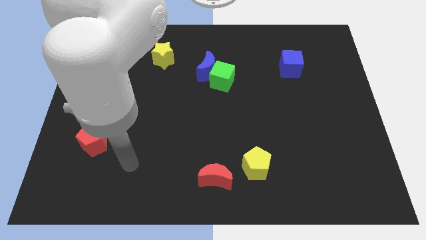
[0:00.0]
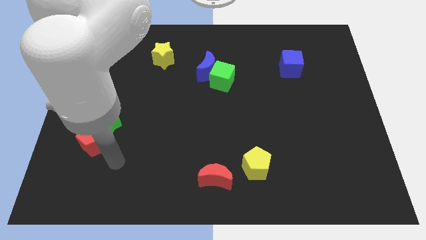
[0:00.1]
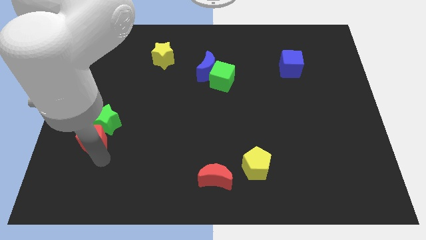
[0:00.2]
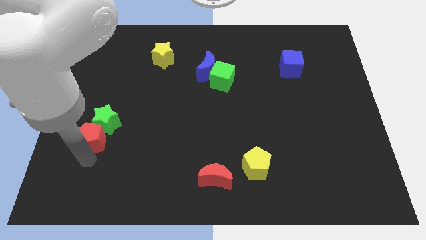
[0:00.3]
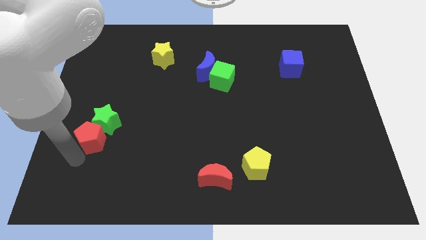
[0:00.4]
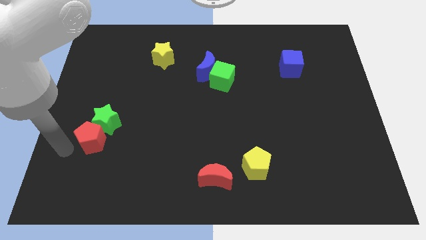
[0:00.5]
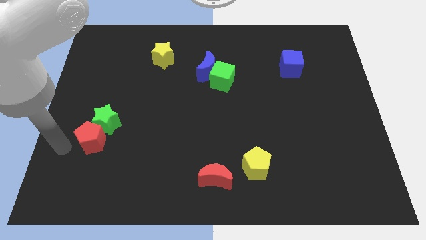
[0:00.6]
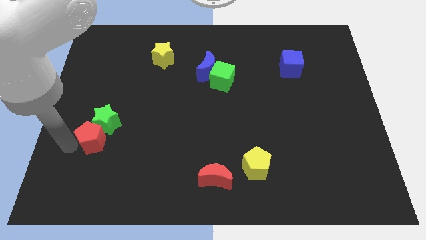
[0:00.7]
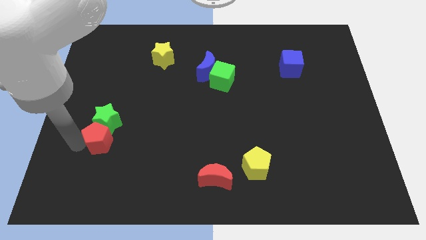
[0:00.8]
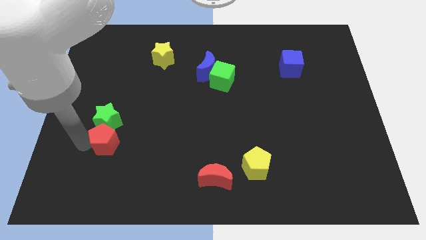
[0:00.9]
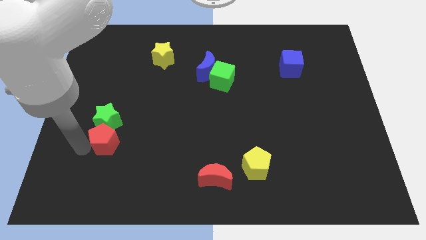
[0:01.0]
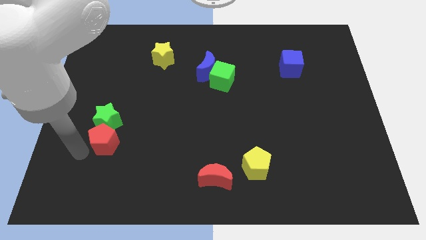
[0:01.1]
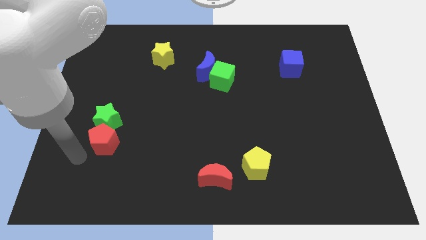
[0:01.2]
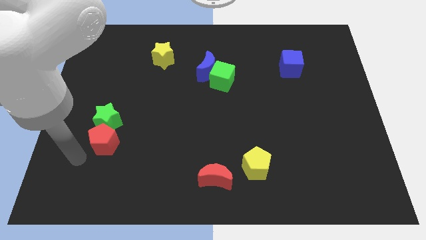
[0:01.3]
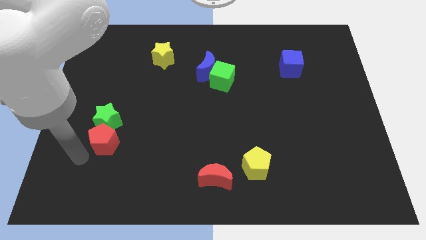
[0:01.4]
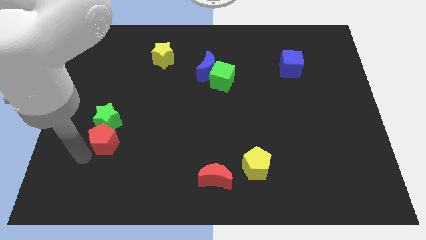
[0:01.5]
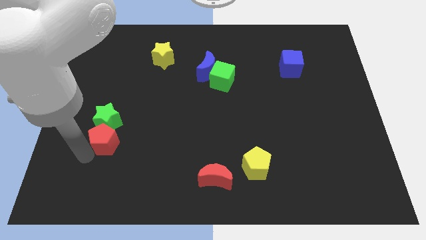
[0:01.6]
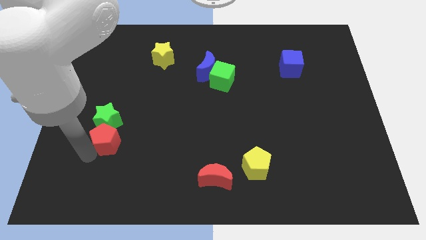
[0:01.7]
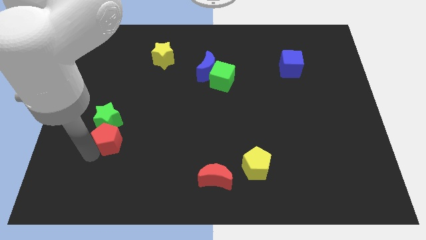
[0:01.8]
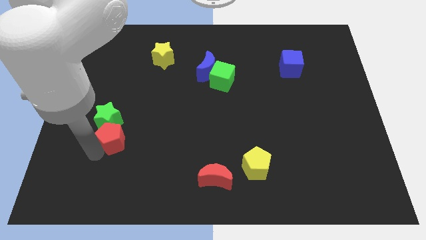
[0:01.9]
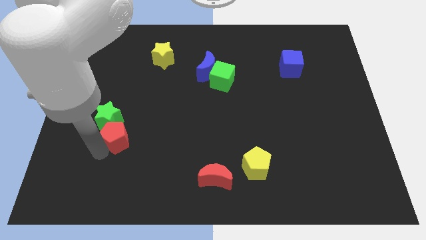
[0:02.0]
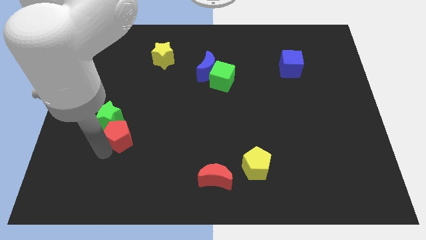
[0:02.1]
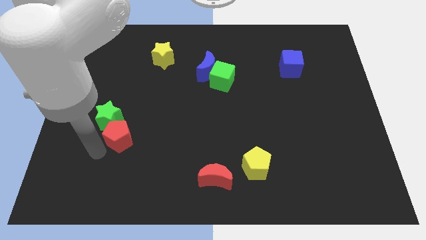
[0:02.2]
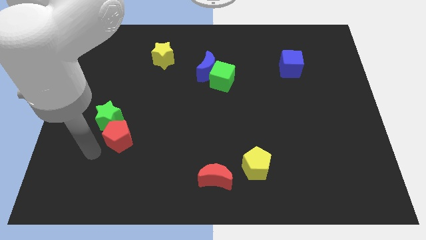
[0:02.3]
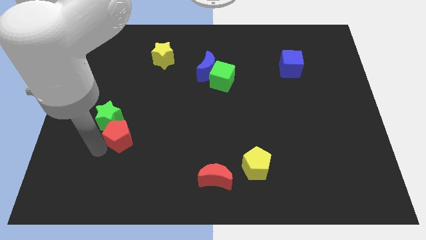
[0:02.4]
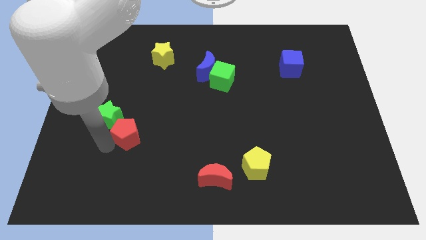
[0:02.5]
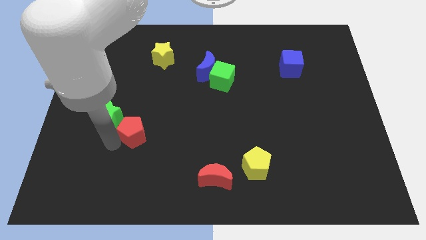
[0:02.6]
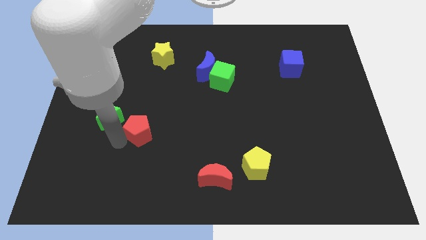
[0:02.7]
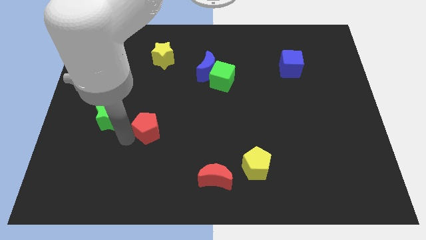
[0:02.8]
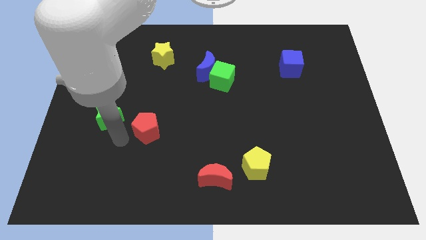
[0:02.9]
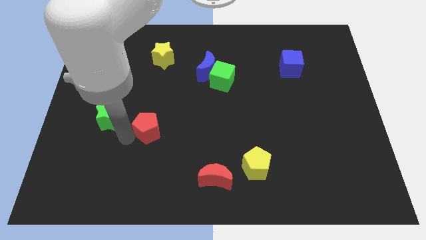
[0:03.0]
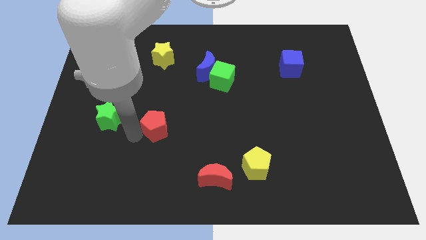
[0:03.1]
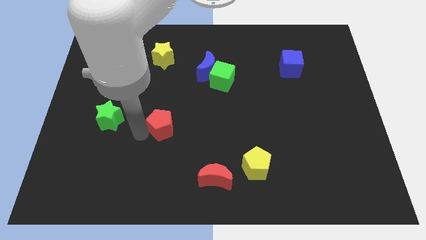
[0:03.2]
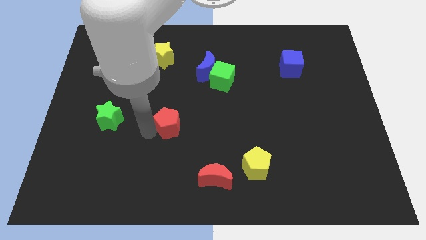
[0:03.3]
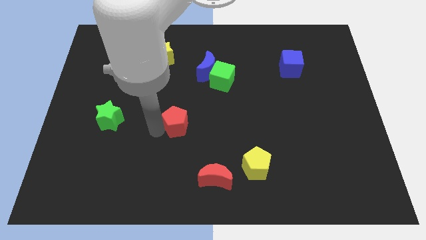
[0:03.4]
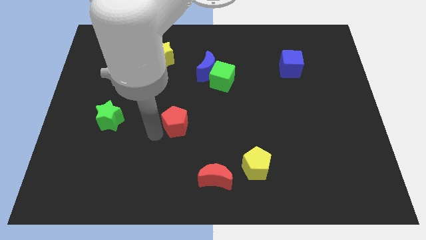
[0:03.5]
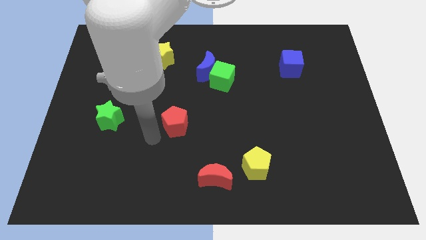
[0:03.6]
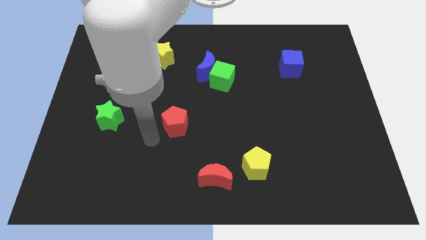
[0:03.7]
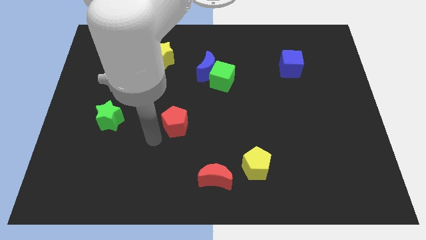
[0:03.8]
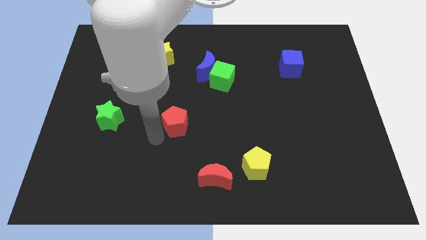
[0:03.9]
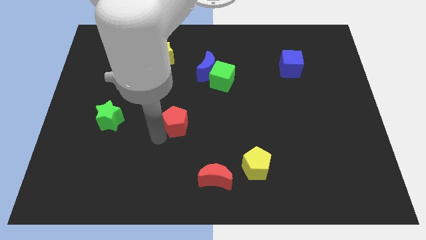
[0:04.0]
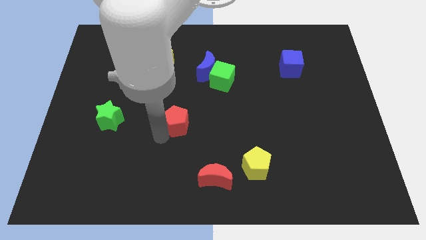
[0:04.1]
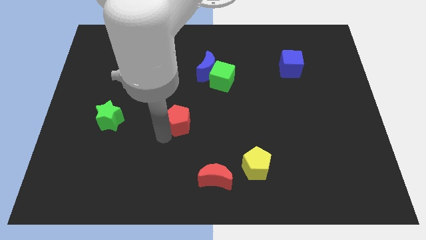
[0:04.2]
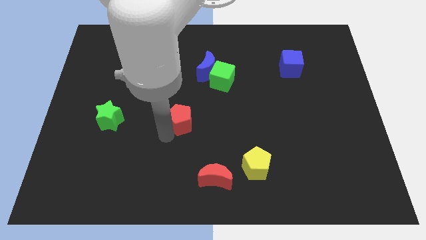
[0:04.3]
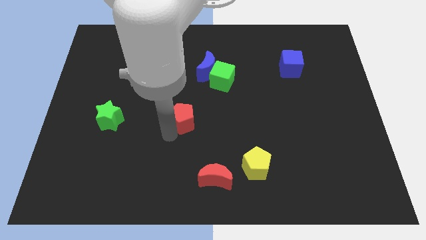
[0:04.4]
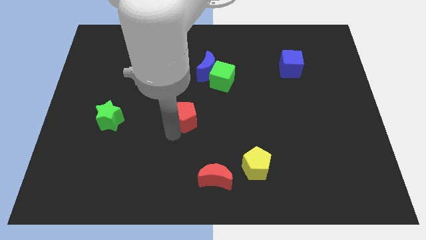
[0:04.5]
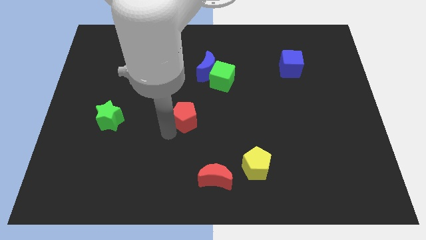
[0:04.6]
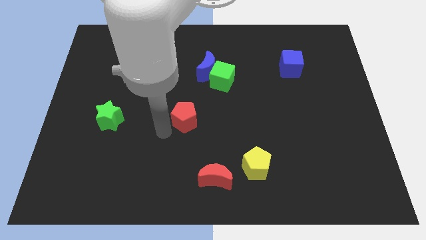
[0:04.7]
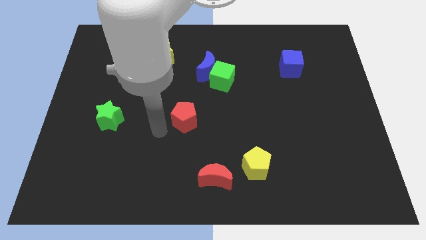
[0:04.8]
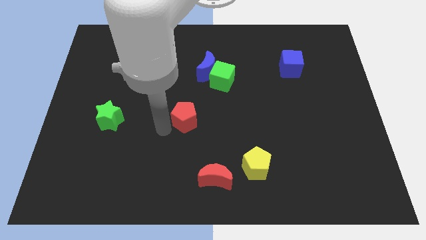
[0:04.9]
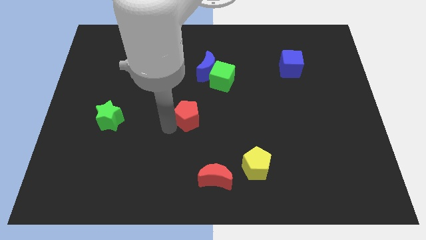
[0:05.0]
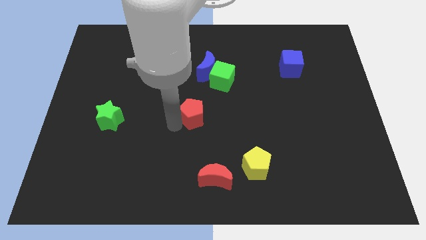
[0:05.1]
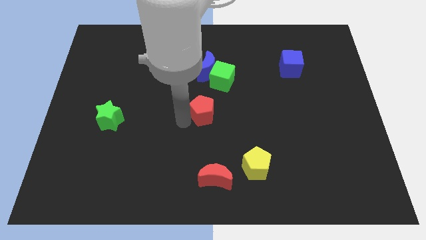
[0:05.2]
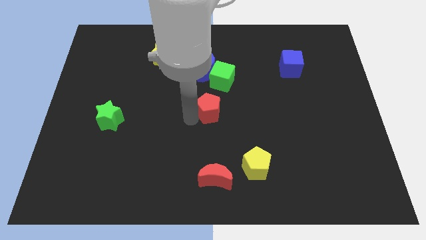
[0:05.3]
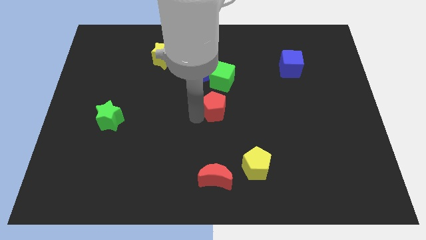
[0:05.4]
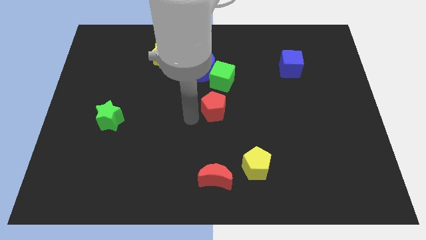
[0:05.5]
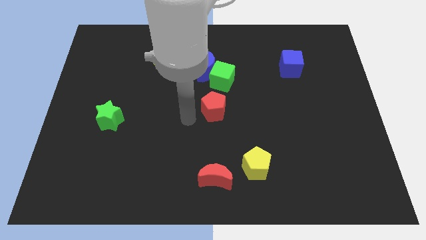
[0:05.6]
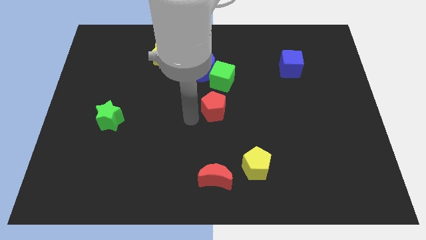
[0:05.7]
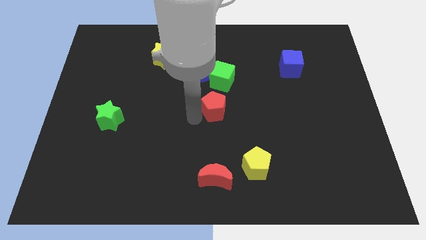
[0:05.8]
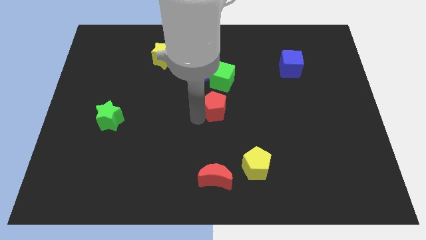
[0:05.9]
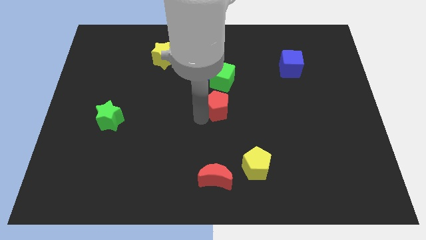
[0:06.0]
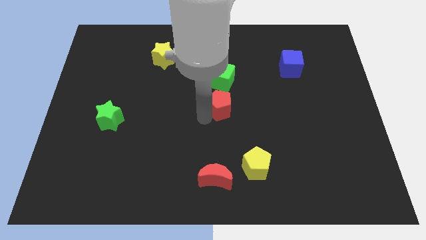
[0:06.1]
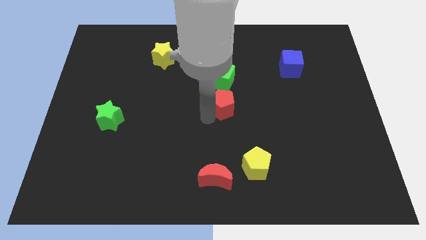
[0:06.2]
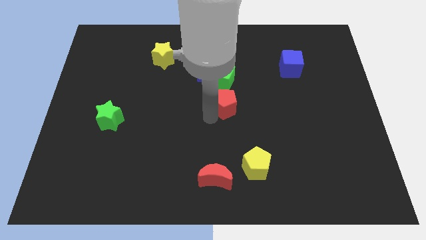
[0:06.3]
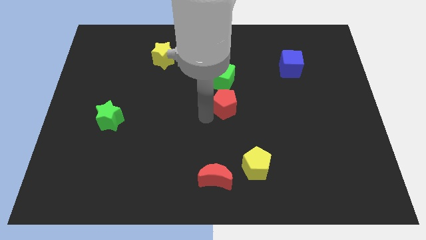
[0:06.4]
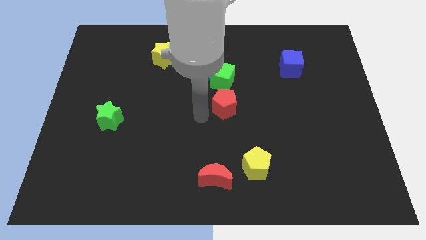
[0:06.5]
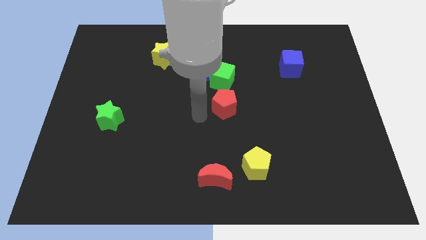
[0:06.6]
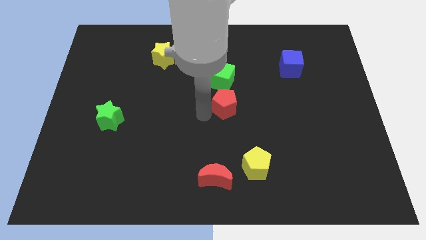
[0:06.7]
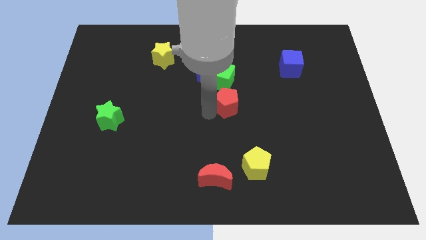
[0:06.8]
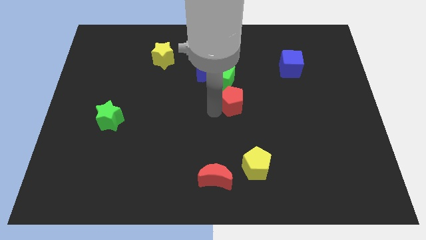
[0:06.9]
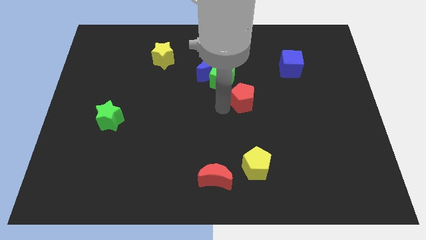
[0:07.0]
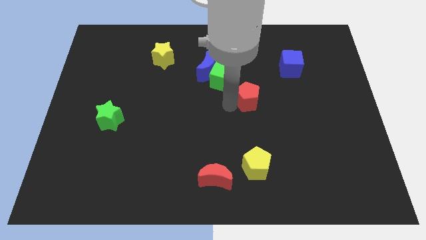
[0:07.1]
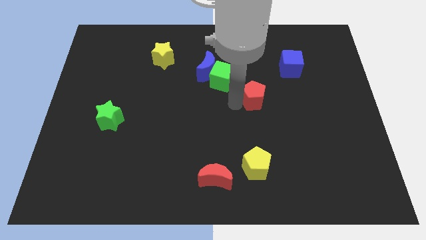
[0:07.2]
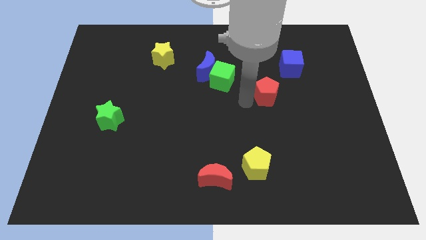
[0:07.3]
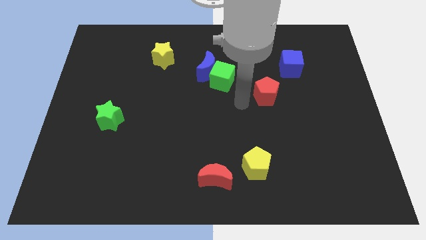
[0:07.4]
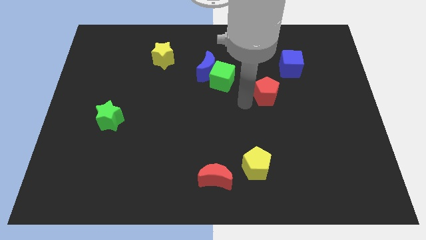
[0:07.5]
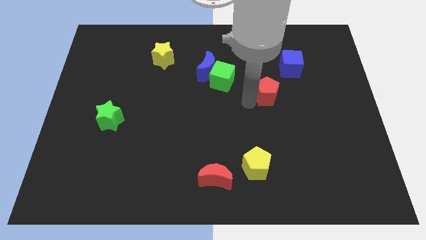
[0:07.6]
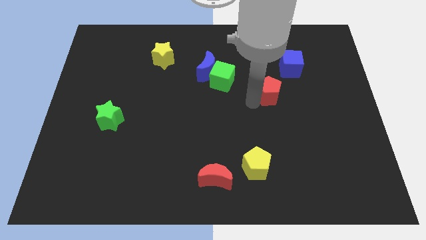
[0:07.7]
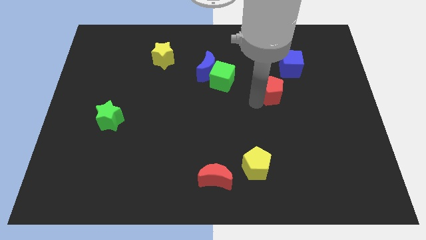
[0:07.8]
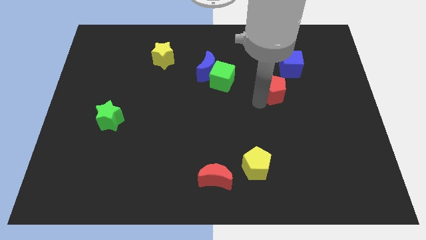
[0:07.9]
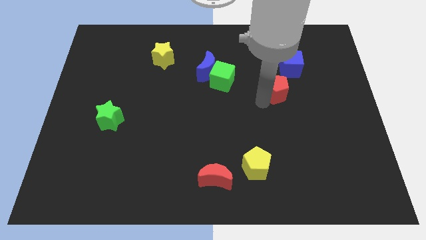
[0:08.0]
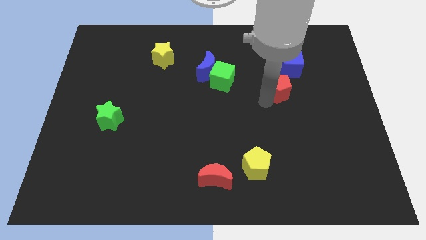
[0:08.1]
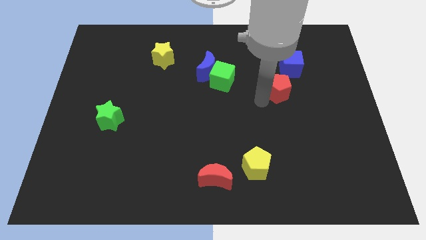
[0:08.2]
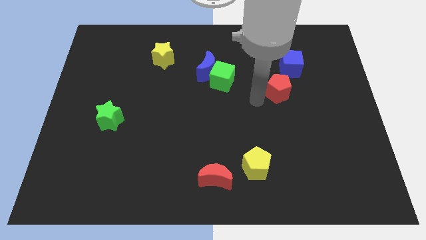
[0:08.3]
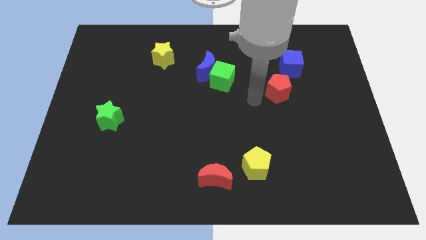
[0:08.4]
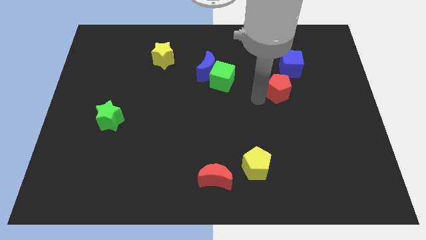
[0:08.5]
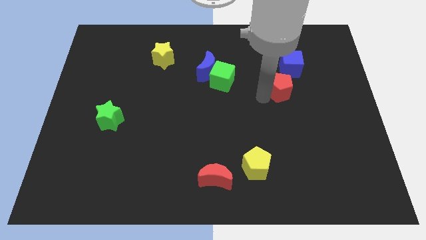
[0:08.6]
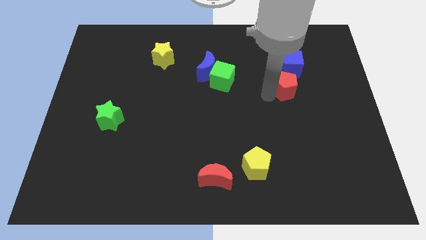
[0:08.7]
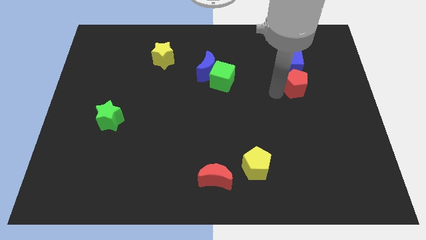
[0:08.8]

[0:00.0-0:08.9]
put the red pentagon to the bottom right of the blue cube
